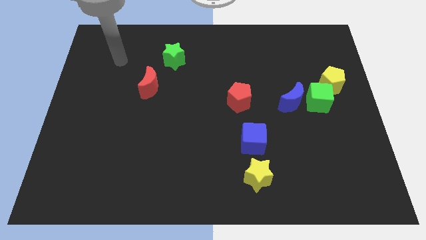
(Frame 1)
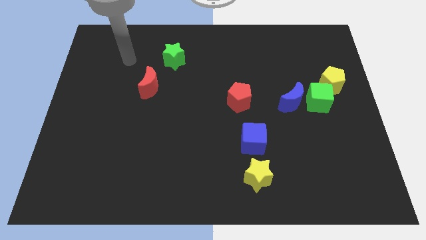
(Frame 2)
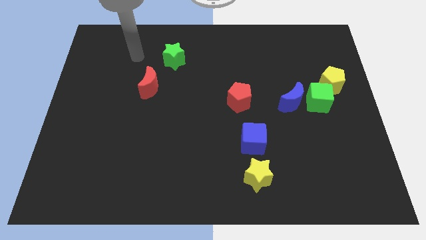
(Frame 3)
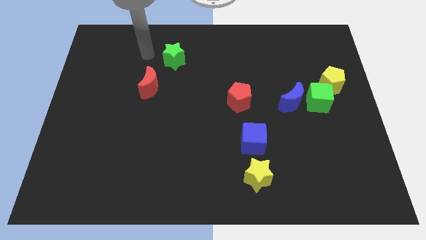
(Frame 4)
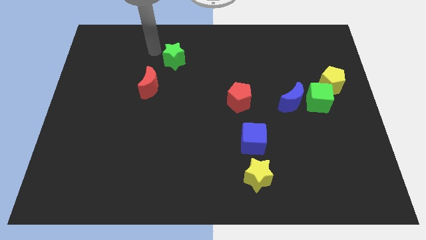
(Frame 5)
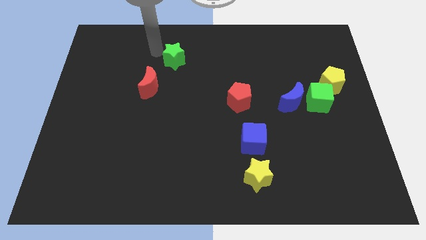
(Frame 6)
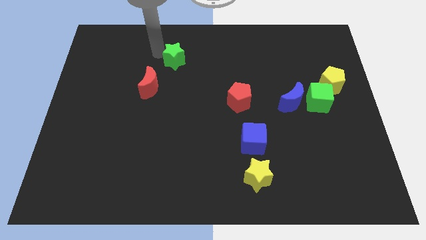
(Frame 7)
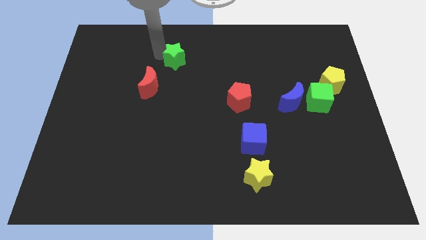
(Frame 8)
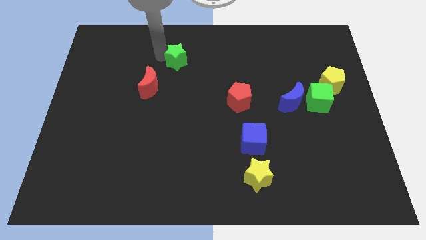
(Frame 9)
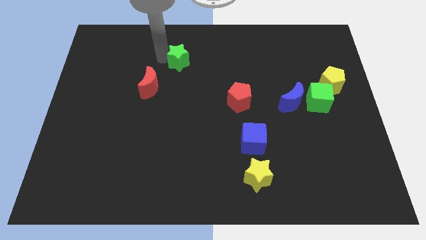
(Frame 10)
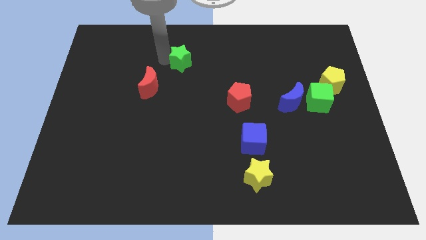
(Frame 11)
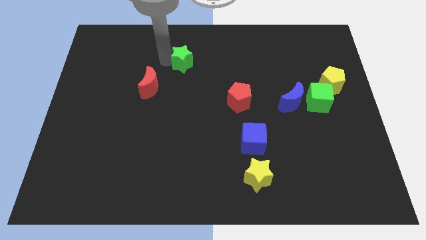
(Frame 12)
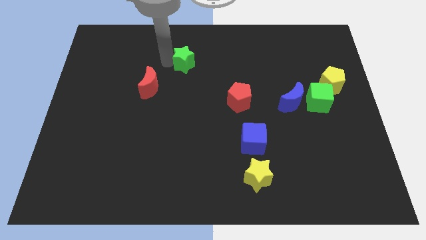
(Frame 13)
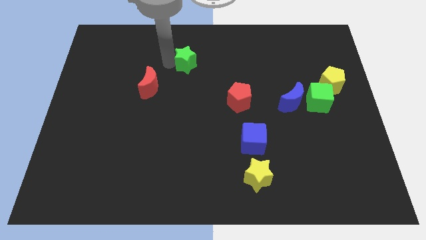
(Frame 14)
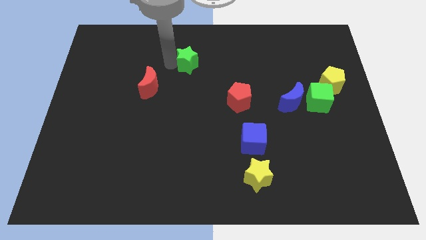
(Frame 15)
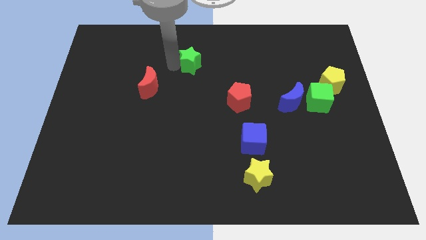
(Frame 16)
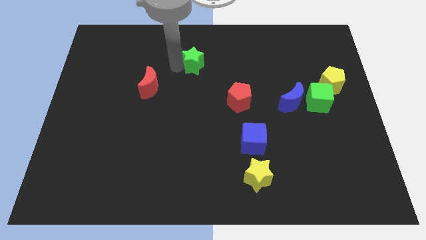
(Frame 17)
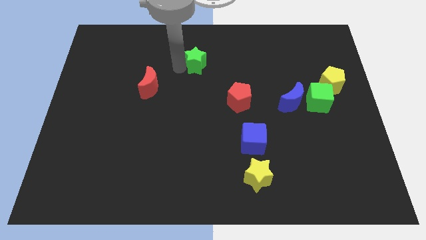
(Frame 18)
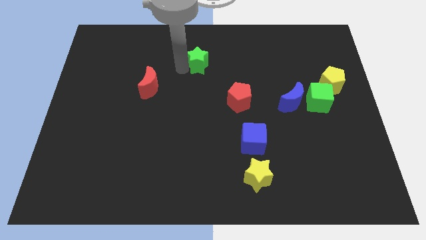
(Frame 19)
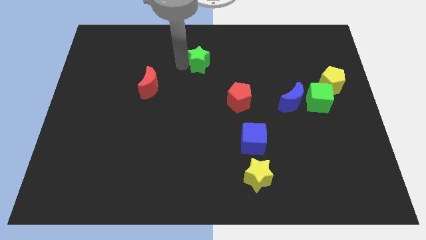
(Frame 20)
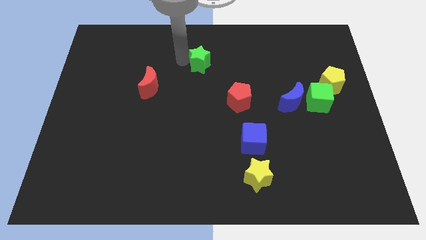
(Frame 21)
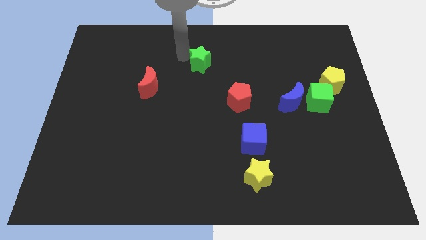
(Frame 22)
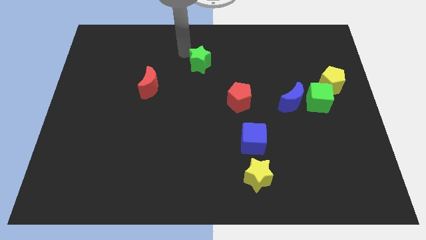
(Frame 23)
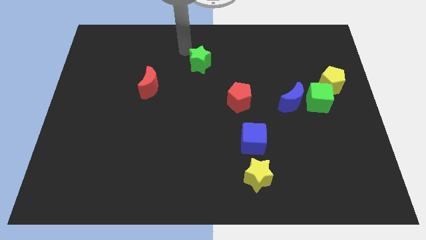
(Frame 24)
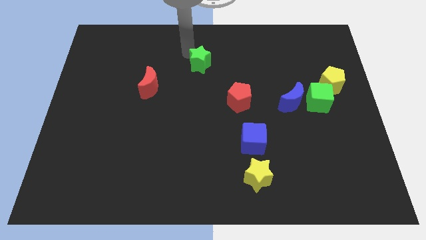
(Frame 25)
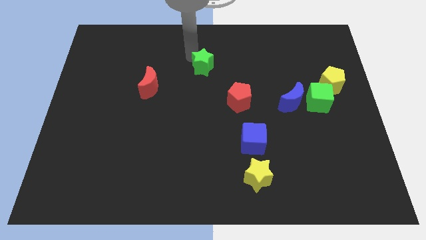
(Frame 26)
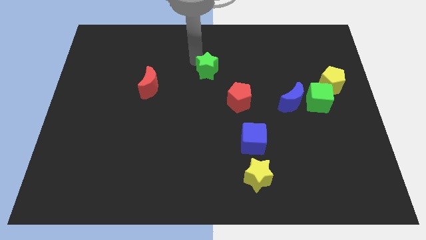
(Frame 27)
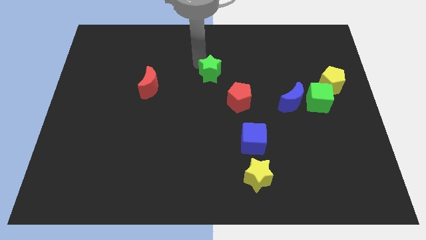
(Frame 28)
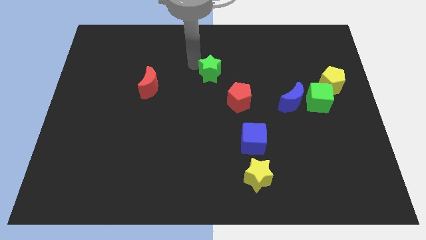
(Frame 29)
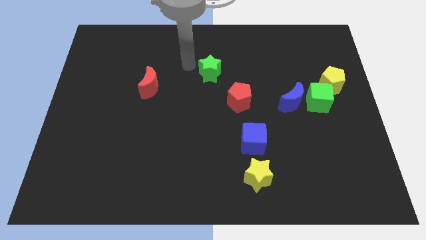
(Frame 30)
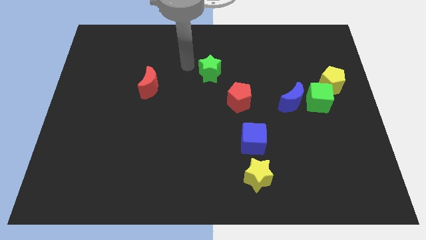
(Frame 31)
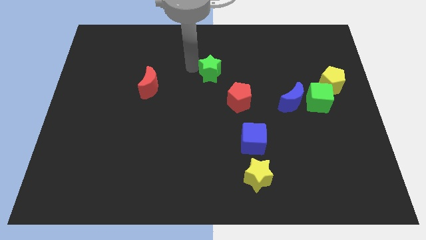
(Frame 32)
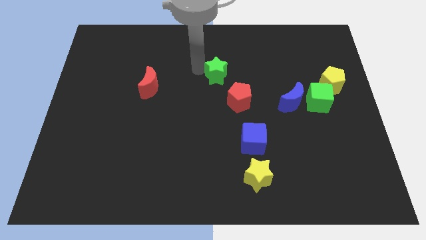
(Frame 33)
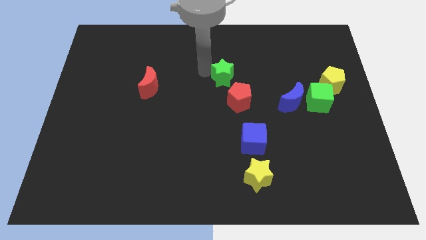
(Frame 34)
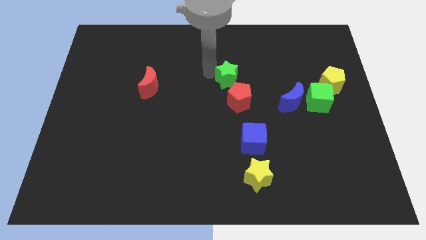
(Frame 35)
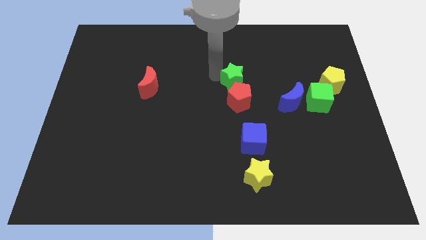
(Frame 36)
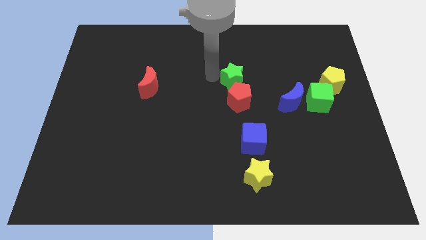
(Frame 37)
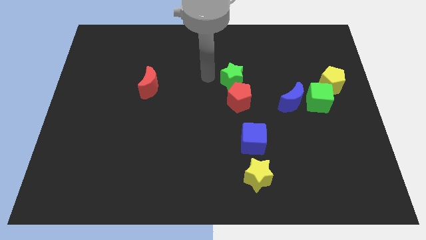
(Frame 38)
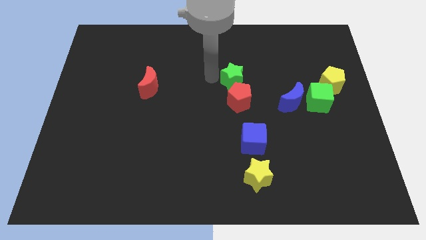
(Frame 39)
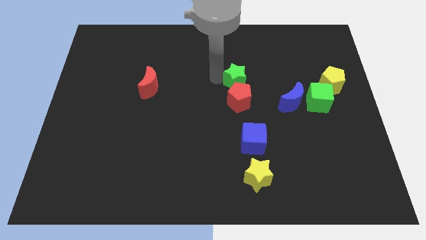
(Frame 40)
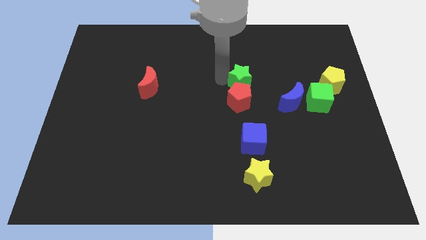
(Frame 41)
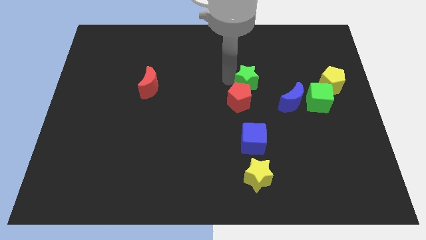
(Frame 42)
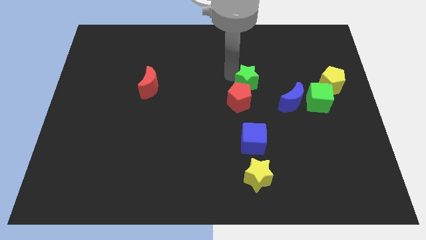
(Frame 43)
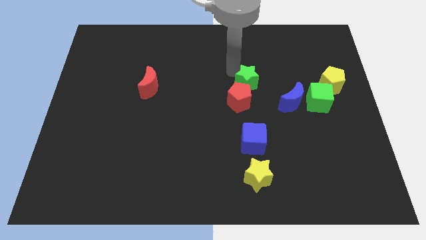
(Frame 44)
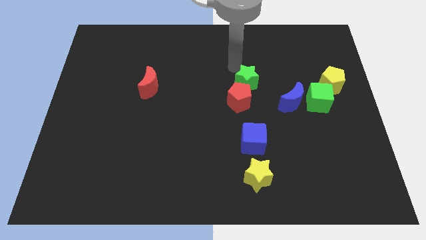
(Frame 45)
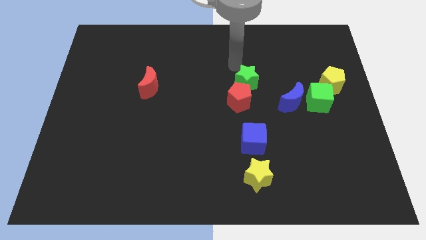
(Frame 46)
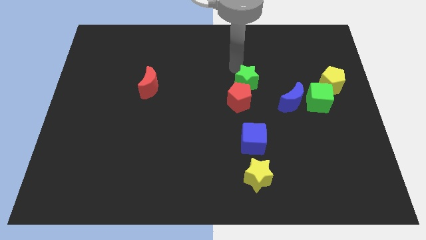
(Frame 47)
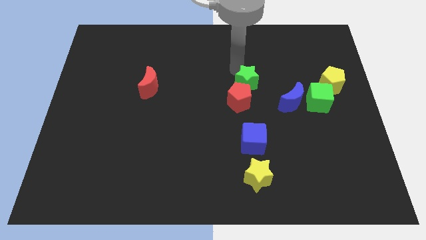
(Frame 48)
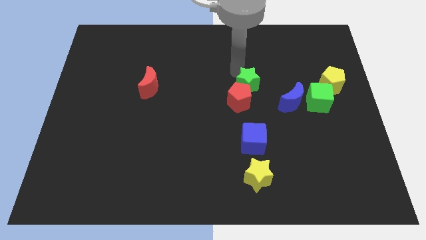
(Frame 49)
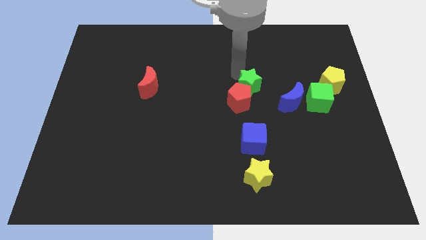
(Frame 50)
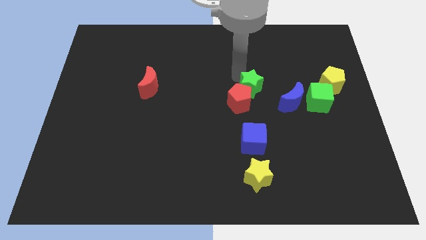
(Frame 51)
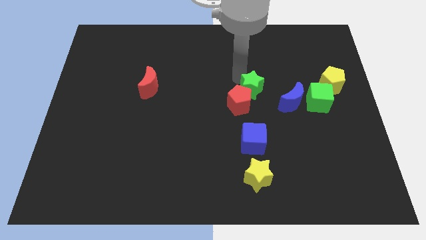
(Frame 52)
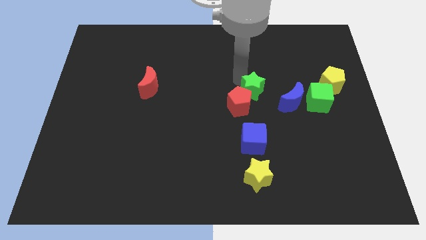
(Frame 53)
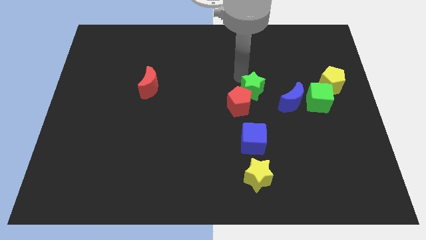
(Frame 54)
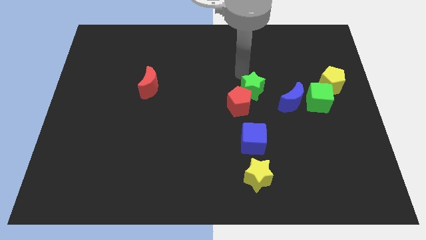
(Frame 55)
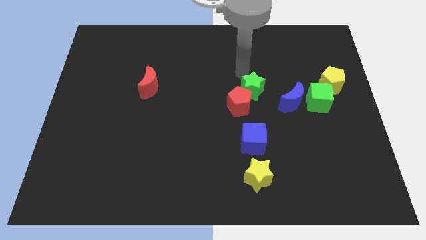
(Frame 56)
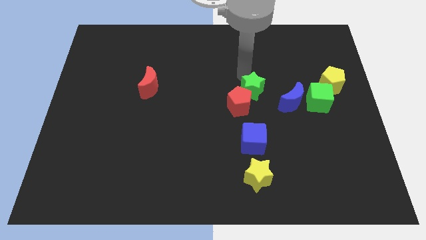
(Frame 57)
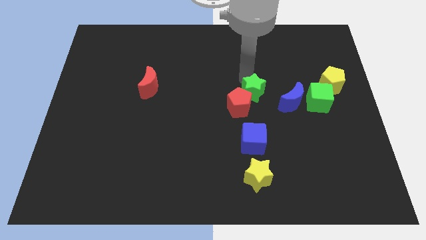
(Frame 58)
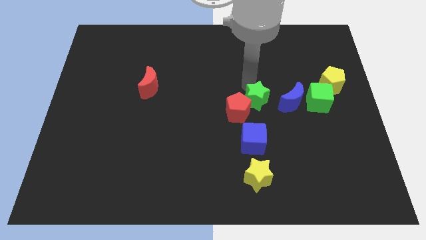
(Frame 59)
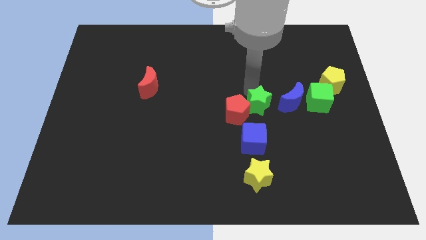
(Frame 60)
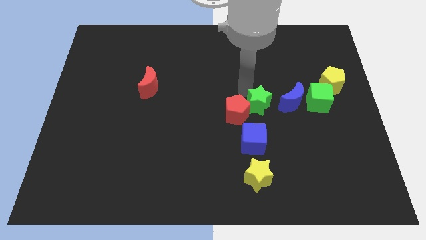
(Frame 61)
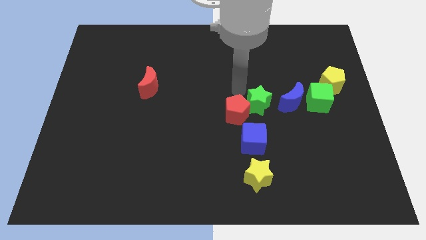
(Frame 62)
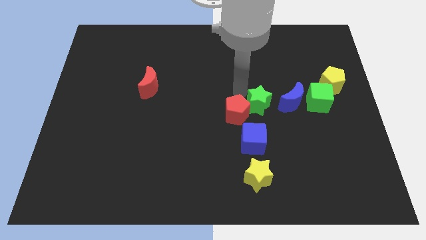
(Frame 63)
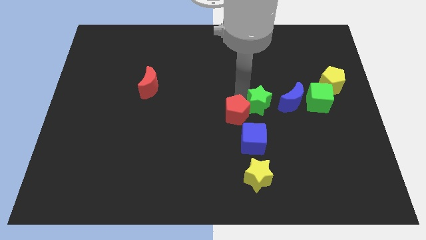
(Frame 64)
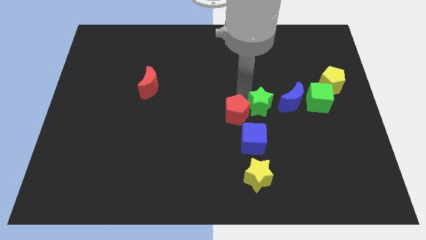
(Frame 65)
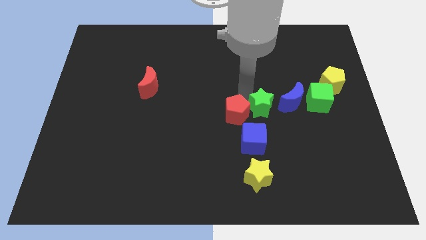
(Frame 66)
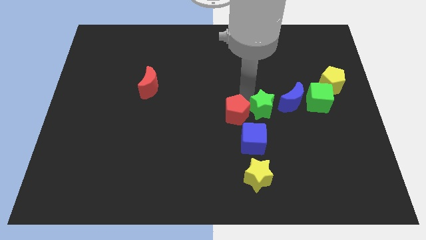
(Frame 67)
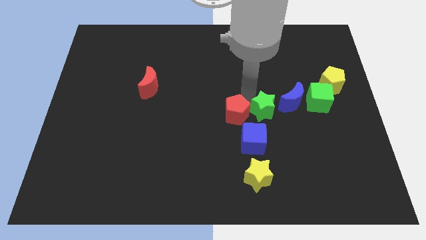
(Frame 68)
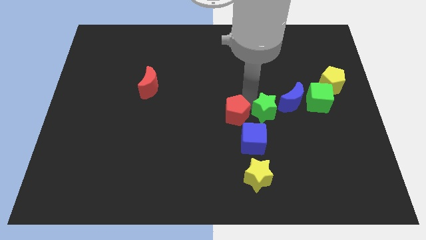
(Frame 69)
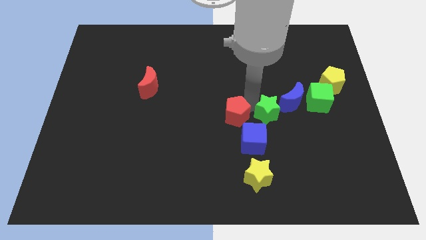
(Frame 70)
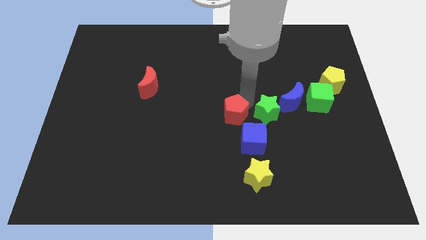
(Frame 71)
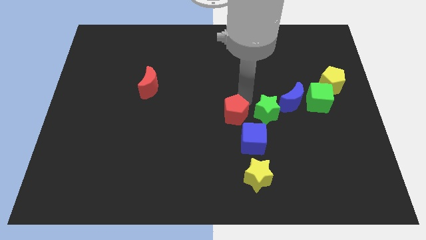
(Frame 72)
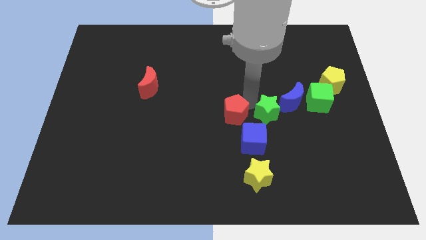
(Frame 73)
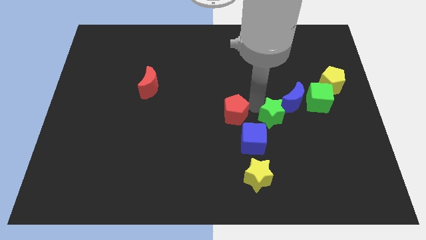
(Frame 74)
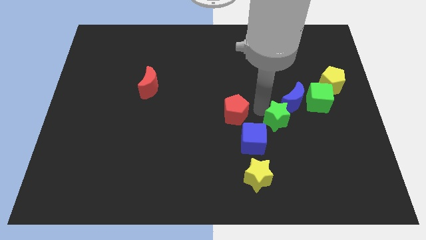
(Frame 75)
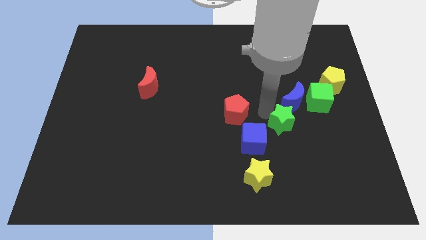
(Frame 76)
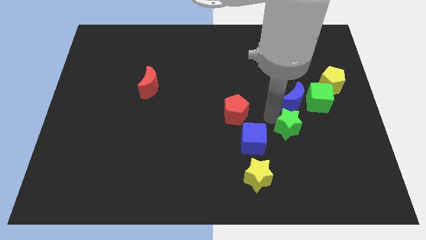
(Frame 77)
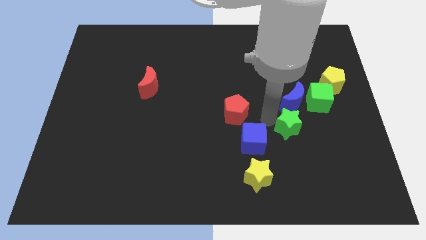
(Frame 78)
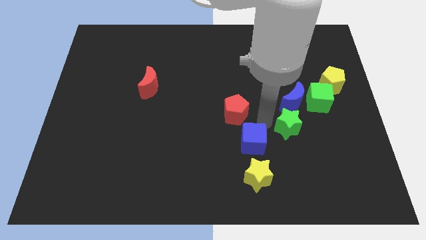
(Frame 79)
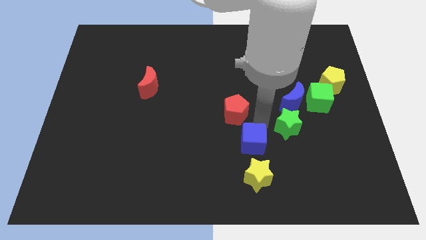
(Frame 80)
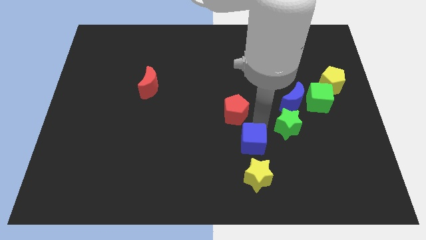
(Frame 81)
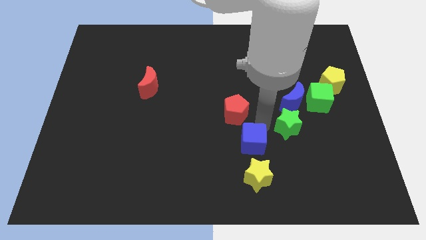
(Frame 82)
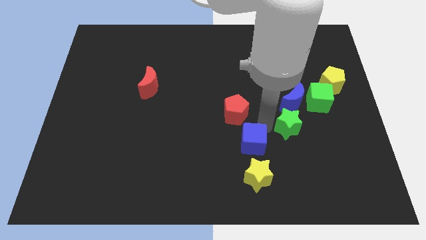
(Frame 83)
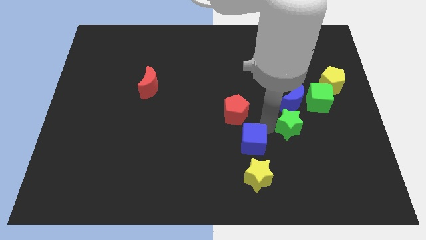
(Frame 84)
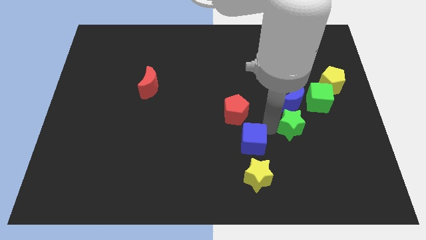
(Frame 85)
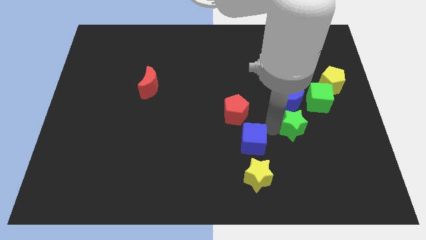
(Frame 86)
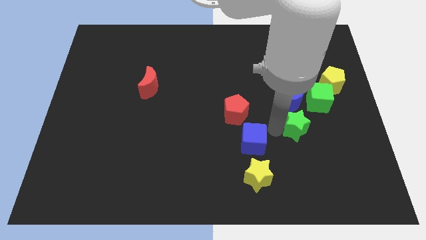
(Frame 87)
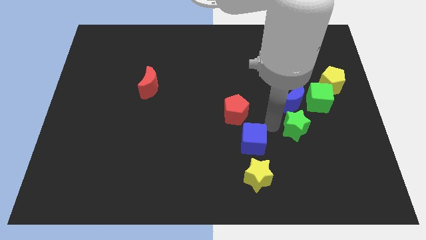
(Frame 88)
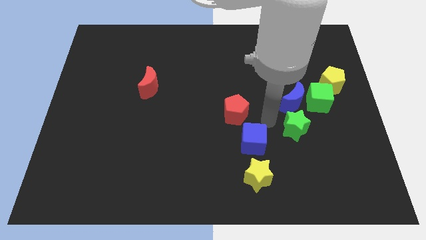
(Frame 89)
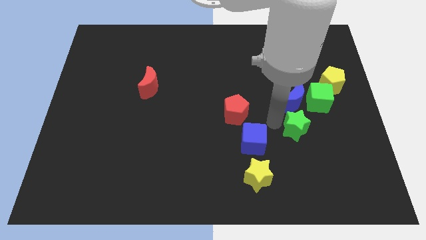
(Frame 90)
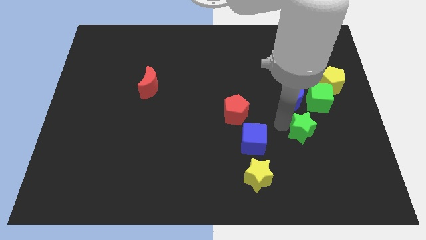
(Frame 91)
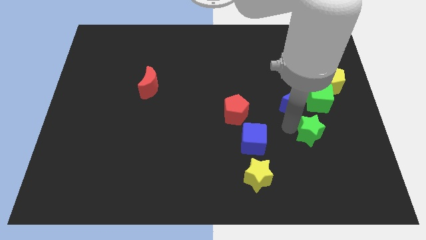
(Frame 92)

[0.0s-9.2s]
move the green star to the bottom side of the green cube
